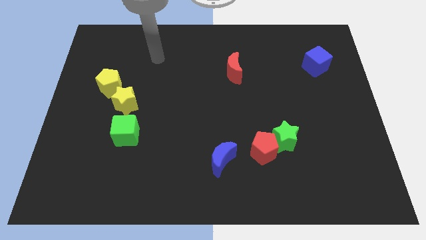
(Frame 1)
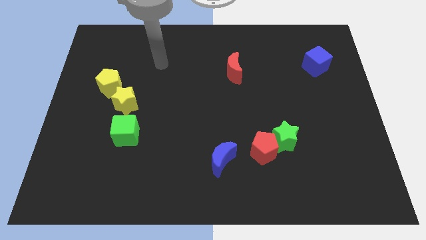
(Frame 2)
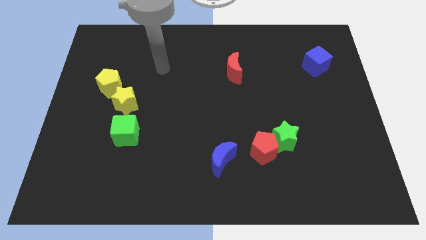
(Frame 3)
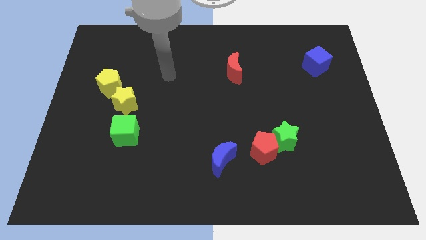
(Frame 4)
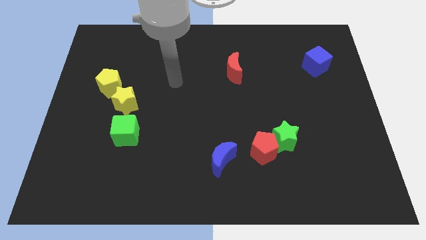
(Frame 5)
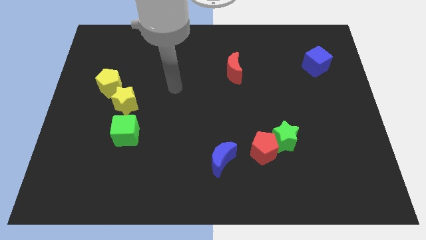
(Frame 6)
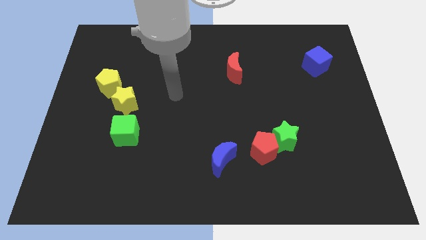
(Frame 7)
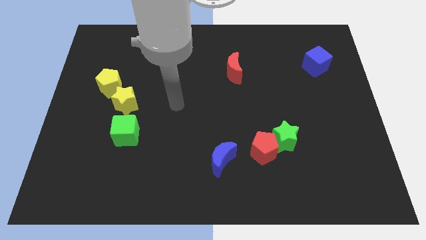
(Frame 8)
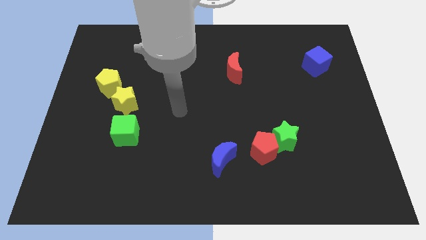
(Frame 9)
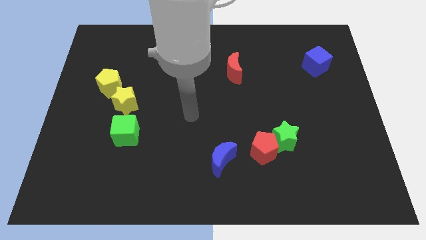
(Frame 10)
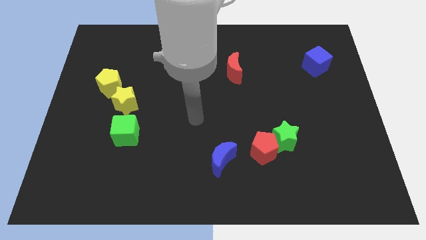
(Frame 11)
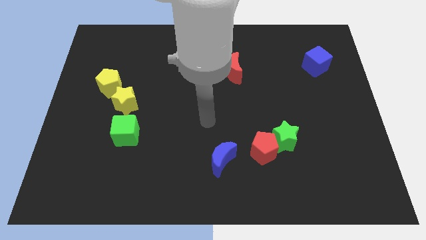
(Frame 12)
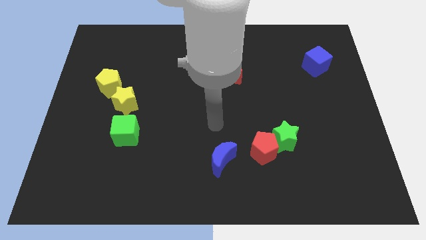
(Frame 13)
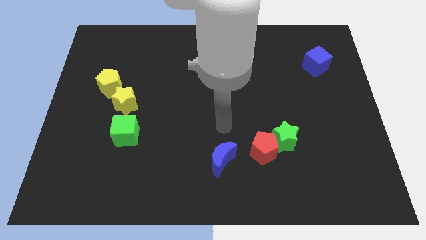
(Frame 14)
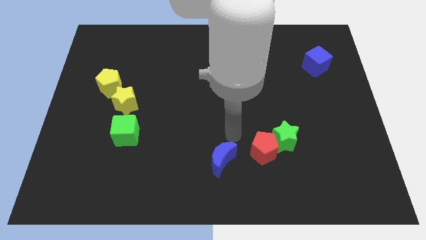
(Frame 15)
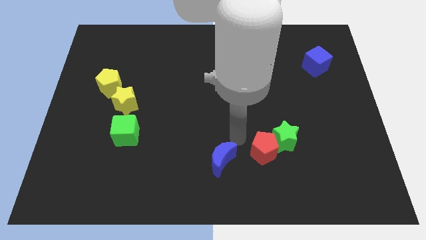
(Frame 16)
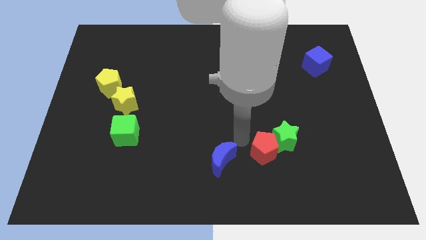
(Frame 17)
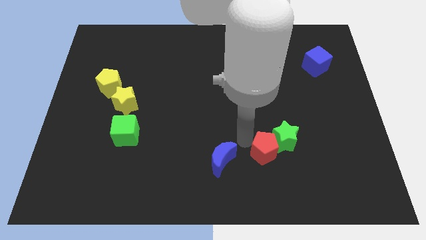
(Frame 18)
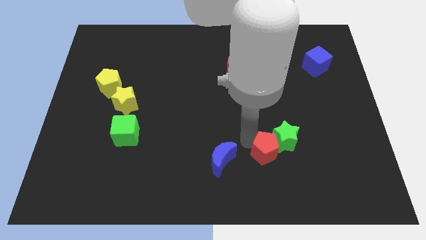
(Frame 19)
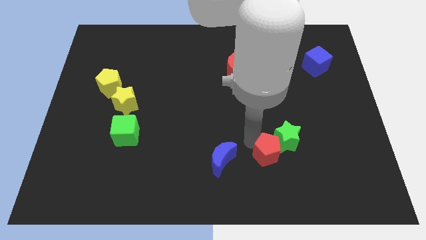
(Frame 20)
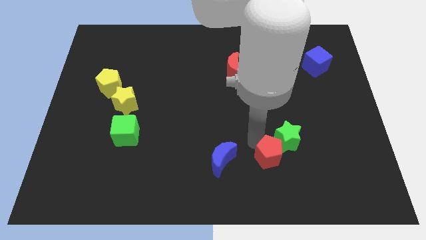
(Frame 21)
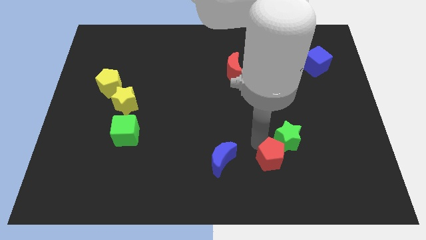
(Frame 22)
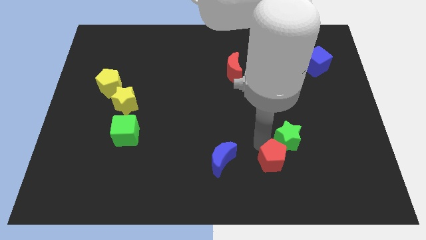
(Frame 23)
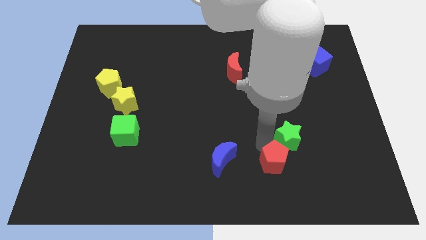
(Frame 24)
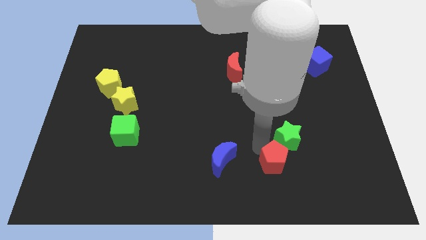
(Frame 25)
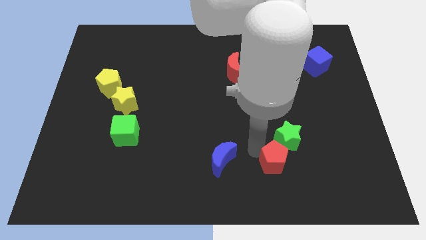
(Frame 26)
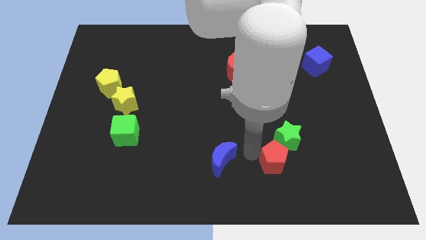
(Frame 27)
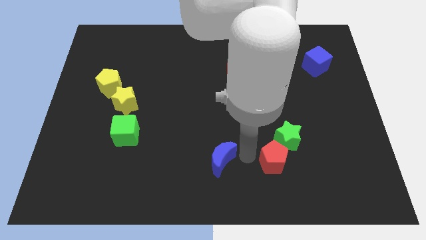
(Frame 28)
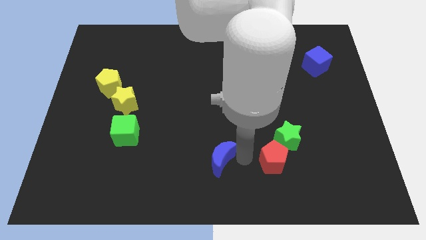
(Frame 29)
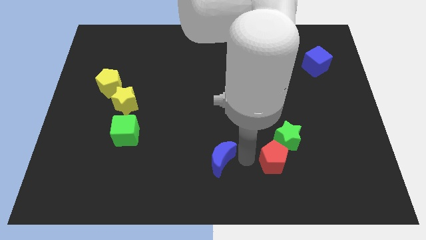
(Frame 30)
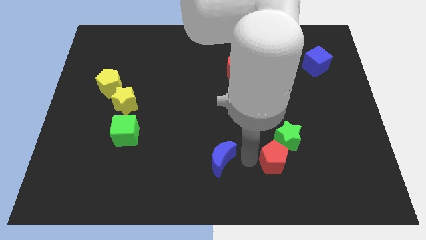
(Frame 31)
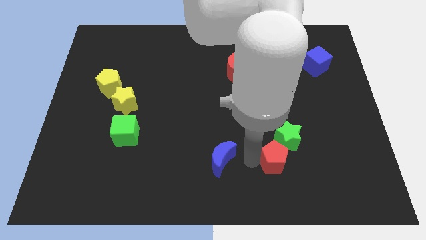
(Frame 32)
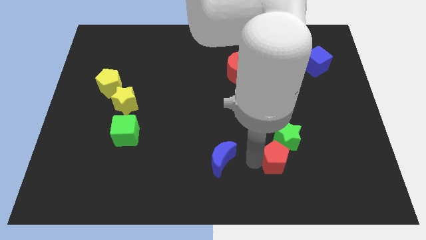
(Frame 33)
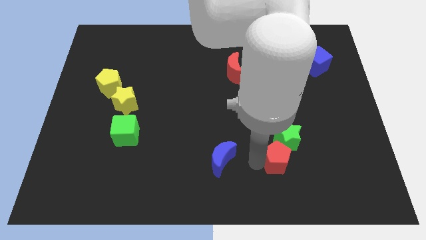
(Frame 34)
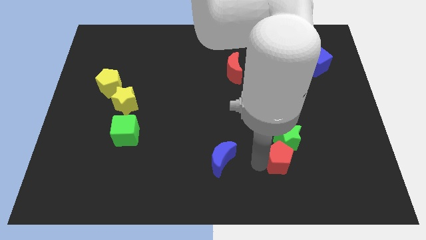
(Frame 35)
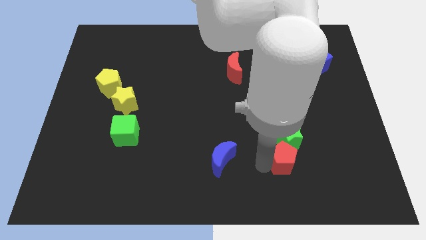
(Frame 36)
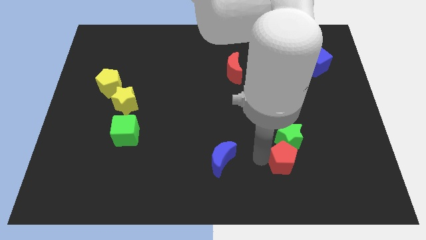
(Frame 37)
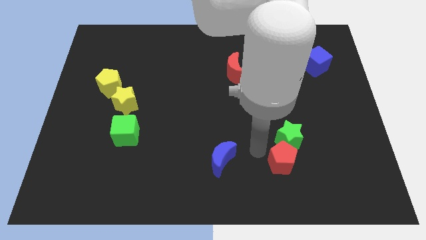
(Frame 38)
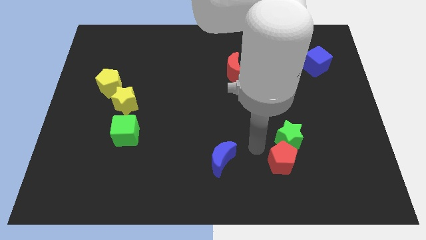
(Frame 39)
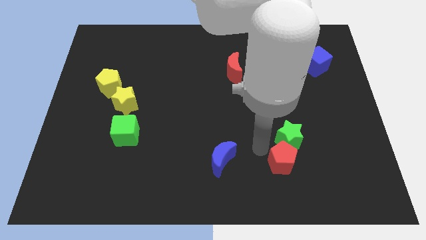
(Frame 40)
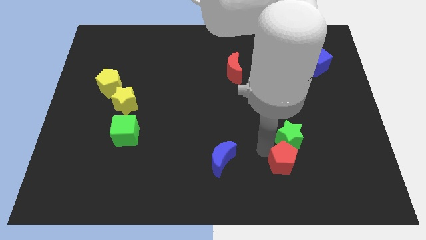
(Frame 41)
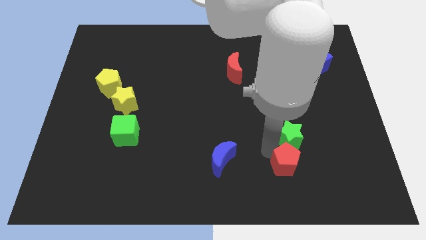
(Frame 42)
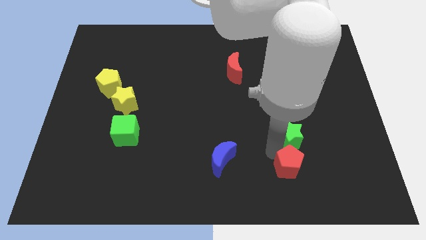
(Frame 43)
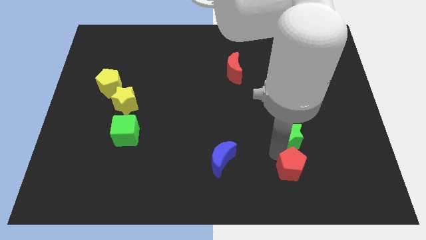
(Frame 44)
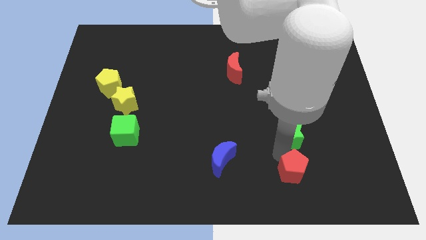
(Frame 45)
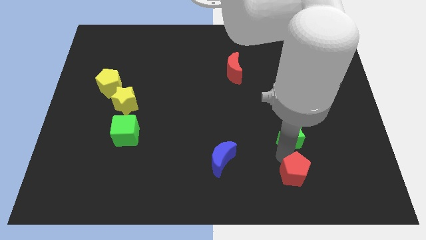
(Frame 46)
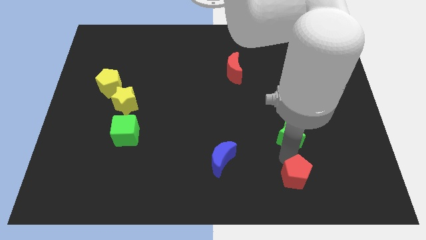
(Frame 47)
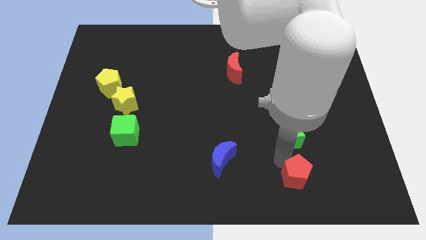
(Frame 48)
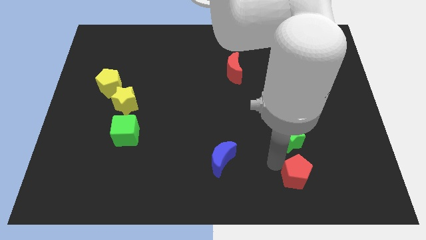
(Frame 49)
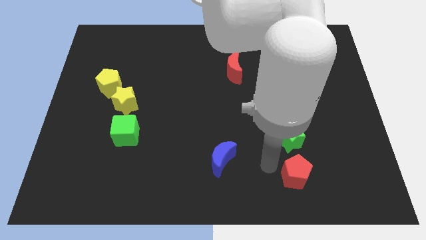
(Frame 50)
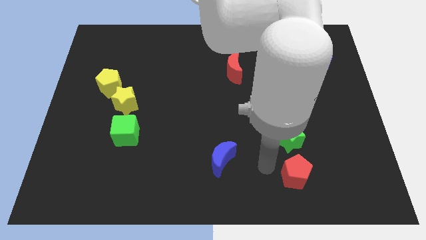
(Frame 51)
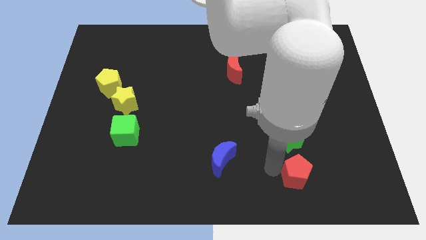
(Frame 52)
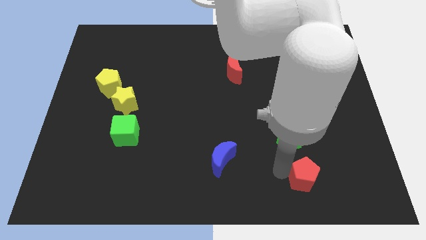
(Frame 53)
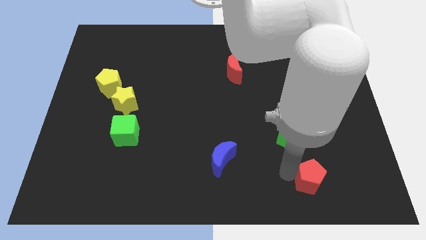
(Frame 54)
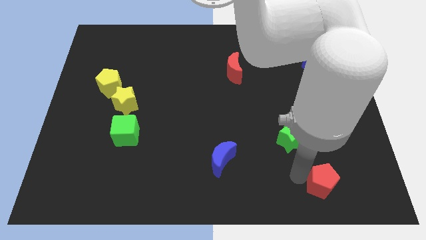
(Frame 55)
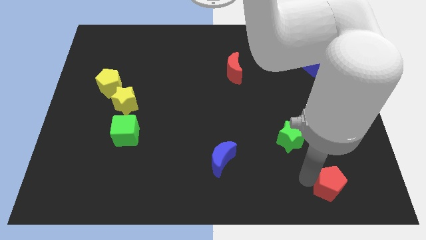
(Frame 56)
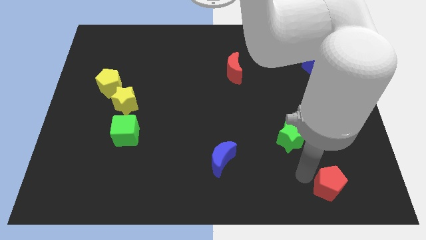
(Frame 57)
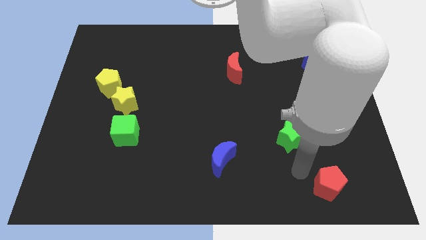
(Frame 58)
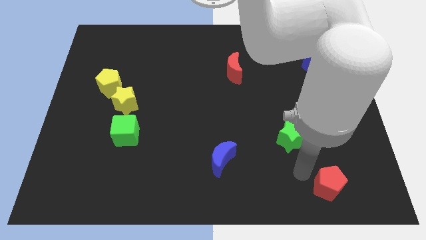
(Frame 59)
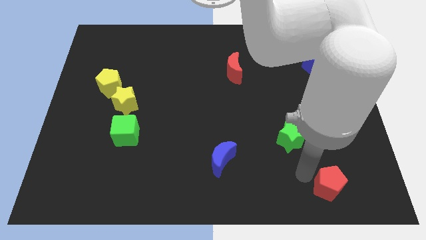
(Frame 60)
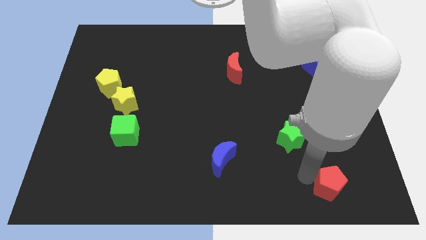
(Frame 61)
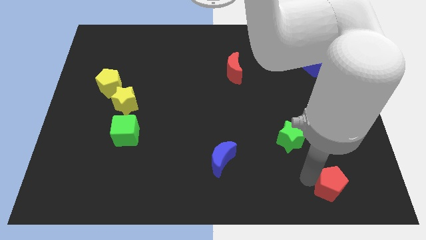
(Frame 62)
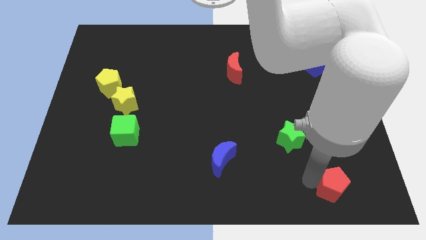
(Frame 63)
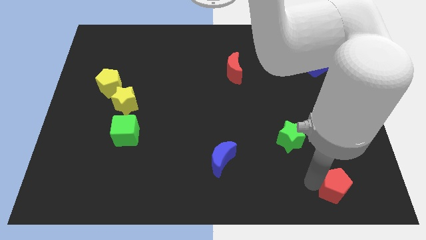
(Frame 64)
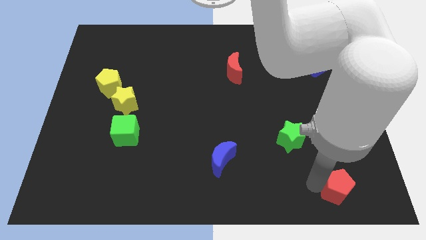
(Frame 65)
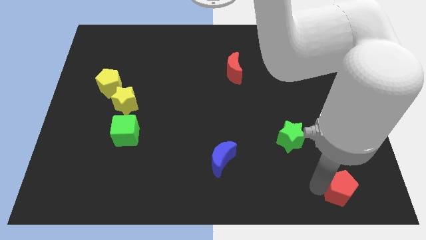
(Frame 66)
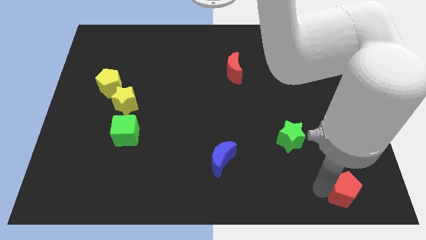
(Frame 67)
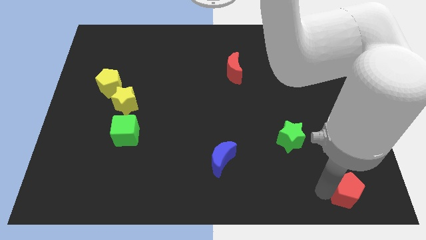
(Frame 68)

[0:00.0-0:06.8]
move the red pentagon to the bottom right of the board
